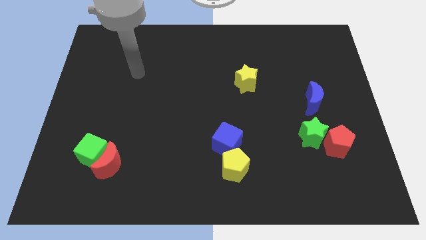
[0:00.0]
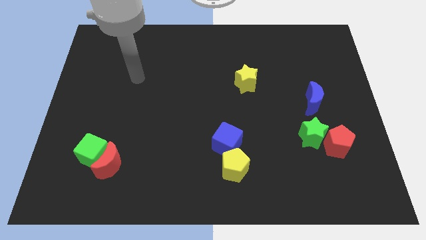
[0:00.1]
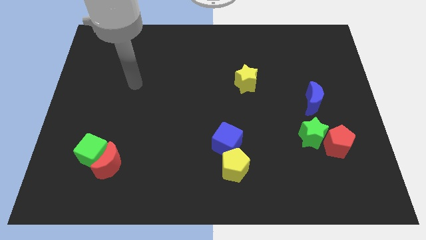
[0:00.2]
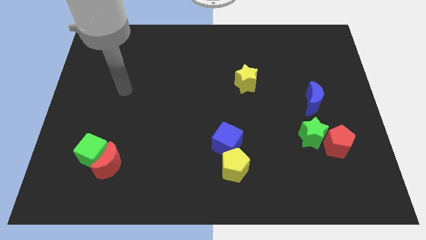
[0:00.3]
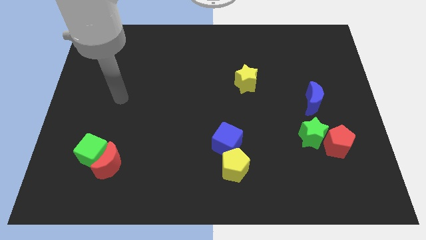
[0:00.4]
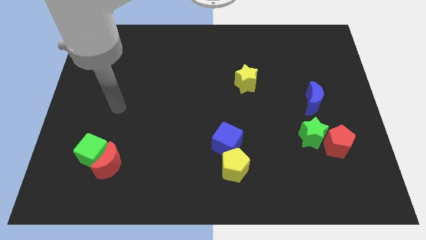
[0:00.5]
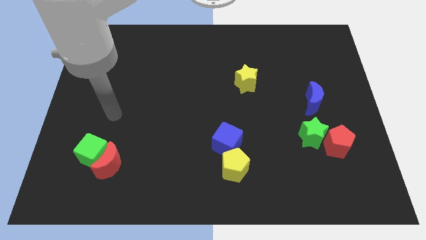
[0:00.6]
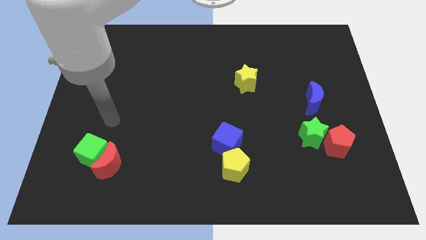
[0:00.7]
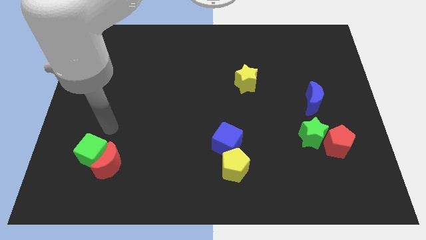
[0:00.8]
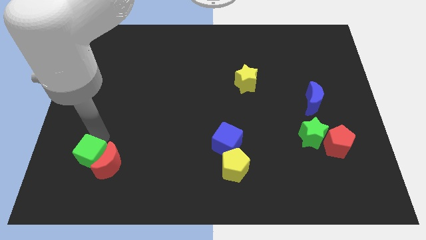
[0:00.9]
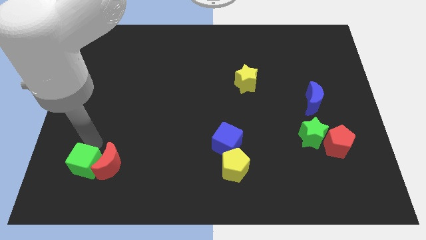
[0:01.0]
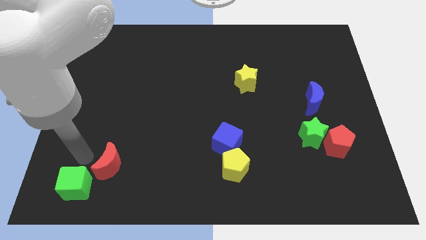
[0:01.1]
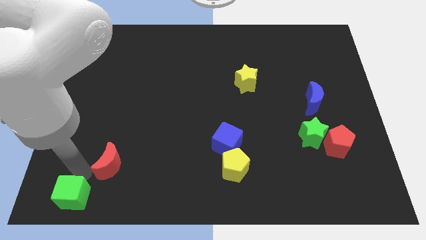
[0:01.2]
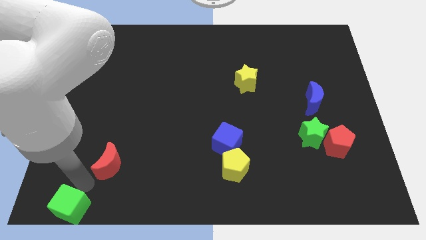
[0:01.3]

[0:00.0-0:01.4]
separate the red moon from the green cube

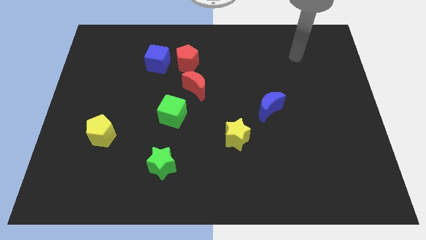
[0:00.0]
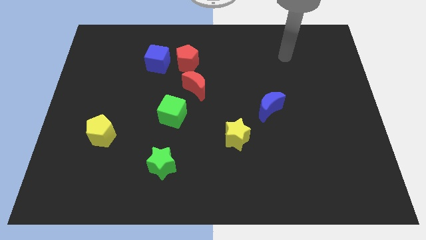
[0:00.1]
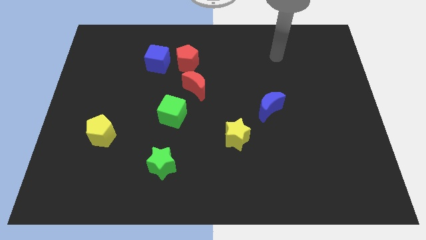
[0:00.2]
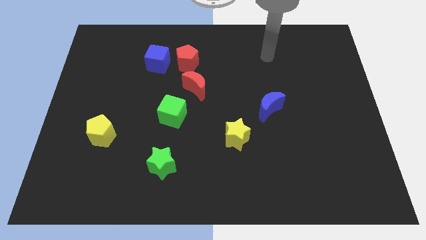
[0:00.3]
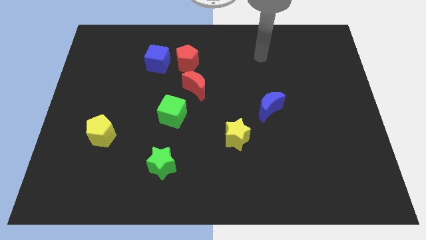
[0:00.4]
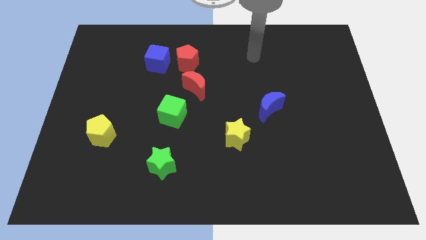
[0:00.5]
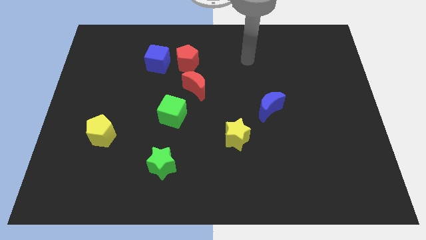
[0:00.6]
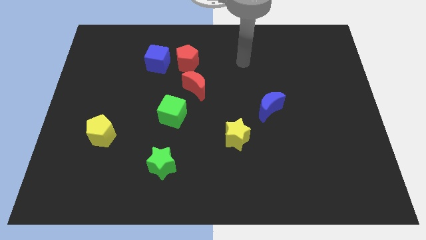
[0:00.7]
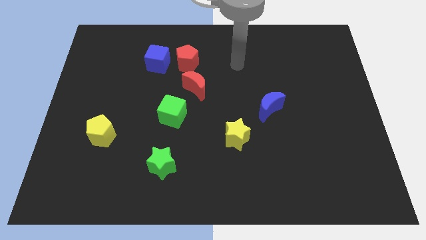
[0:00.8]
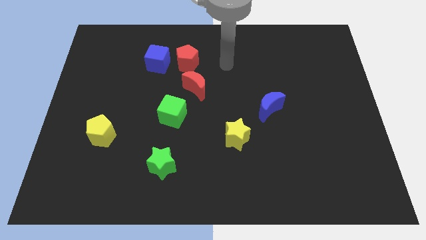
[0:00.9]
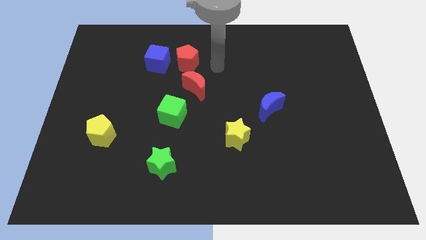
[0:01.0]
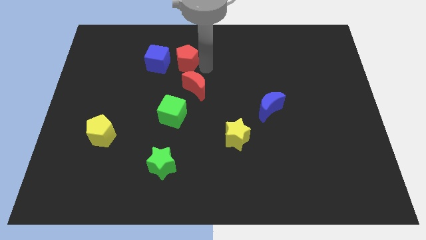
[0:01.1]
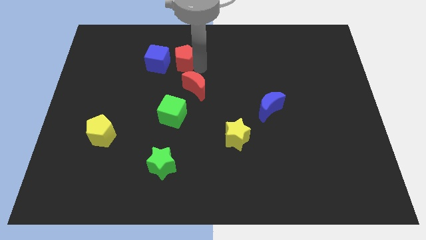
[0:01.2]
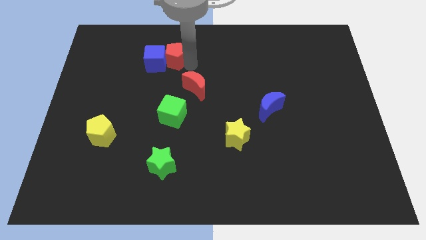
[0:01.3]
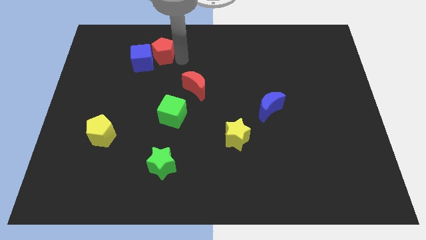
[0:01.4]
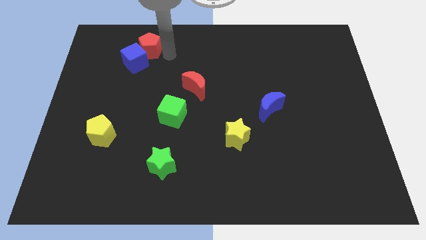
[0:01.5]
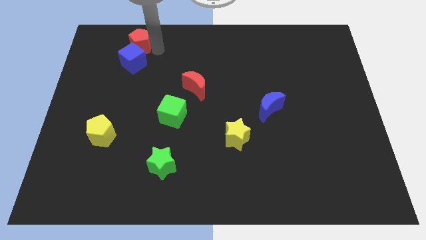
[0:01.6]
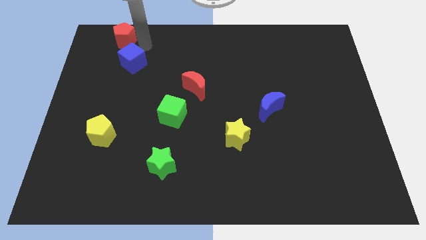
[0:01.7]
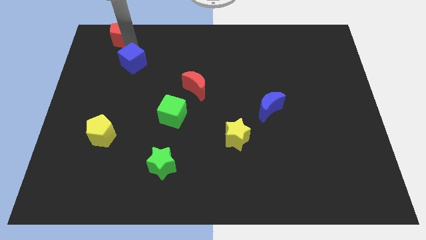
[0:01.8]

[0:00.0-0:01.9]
move the blue cube away from the red pentagon

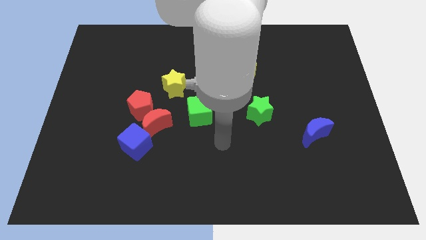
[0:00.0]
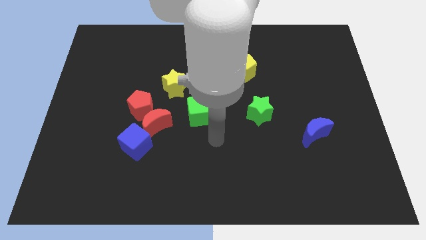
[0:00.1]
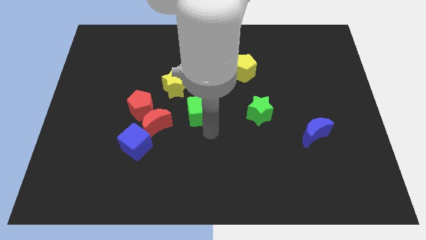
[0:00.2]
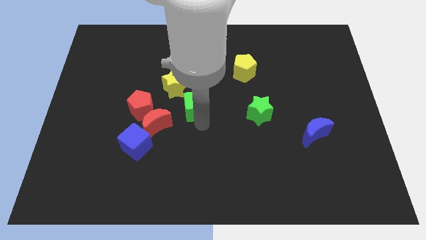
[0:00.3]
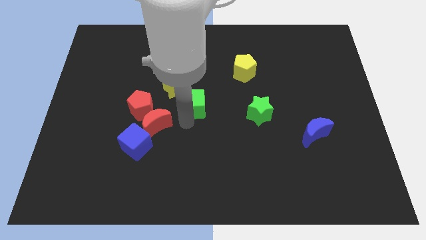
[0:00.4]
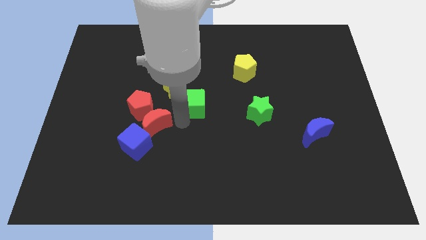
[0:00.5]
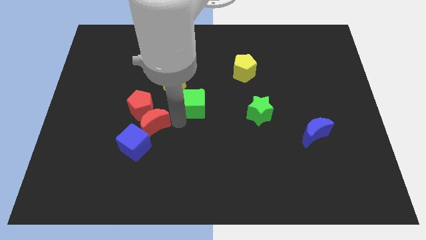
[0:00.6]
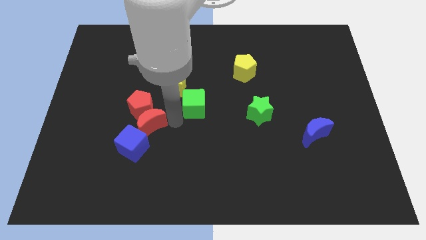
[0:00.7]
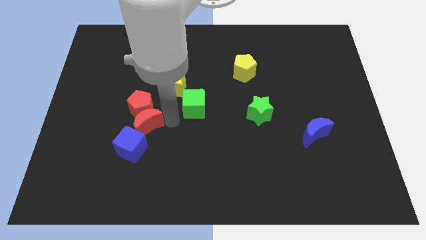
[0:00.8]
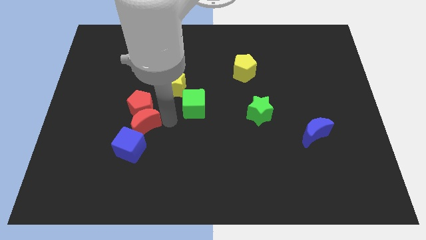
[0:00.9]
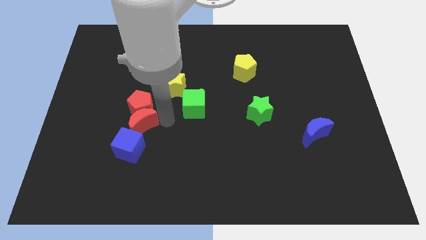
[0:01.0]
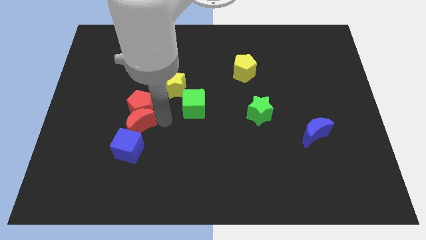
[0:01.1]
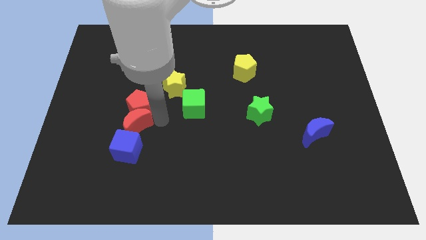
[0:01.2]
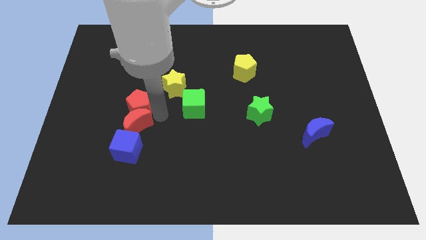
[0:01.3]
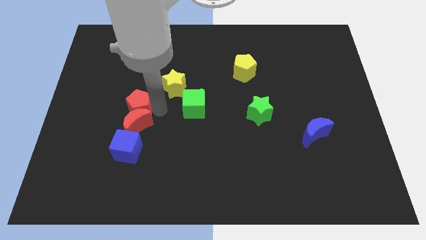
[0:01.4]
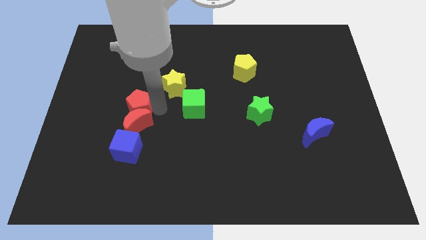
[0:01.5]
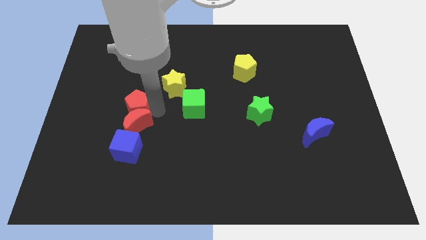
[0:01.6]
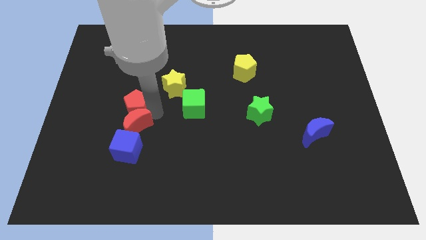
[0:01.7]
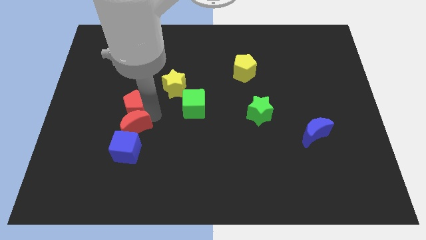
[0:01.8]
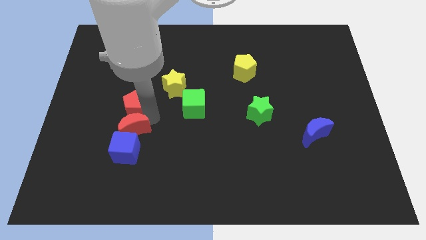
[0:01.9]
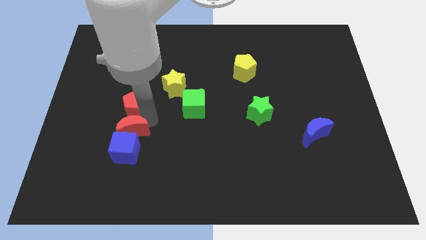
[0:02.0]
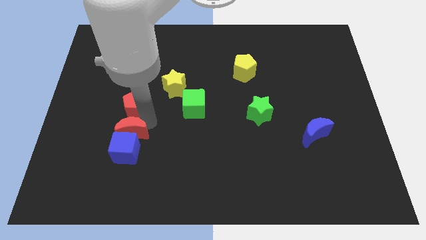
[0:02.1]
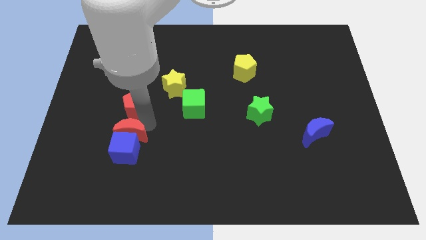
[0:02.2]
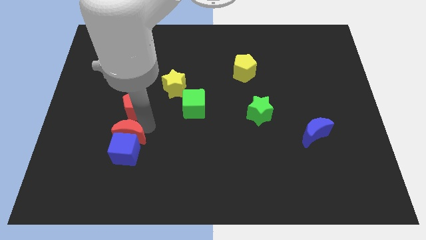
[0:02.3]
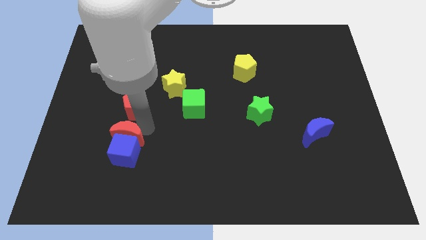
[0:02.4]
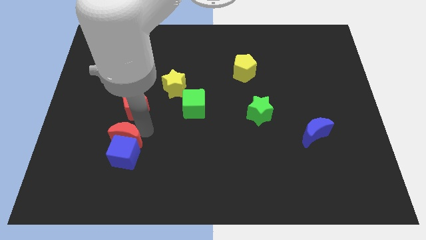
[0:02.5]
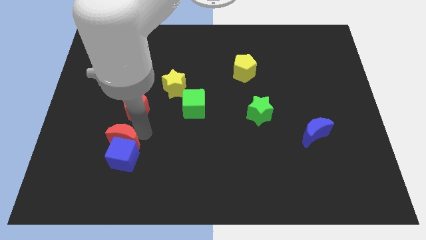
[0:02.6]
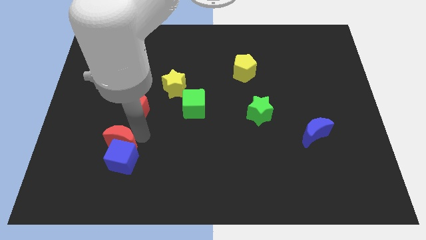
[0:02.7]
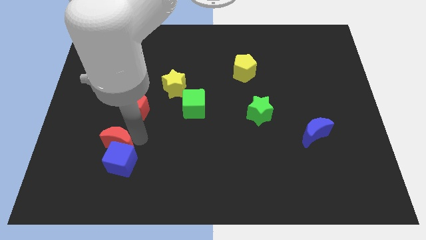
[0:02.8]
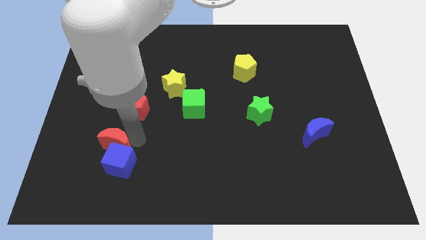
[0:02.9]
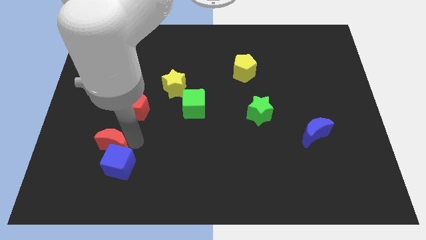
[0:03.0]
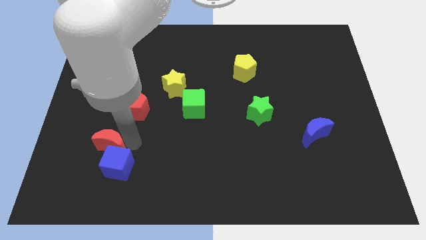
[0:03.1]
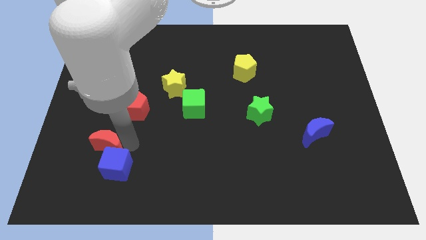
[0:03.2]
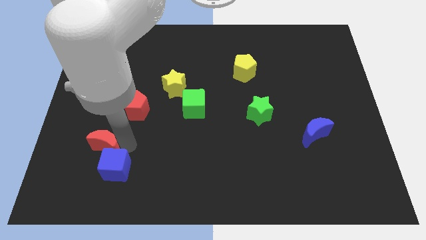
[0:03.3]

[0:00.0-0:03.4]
move the red moon away from the clump

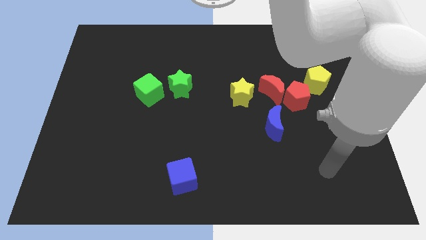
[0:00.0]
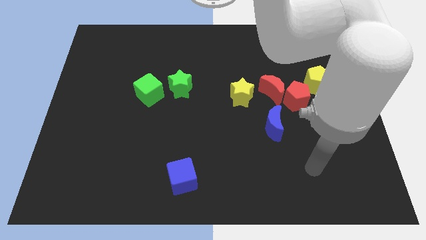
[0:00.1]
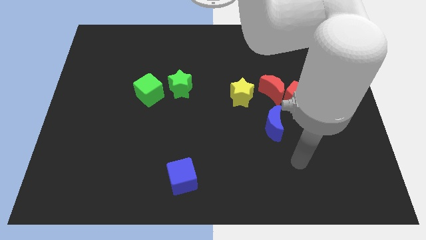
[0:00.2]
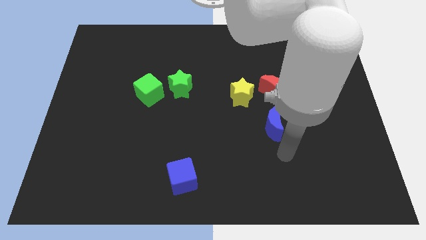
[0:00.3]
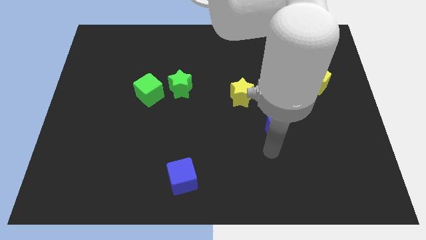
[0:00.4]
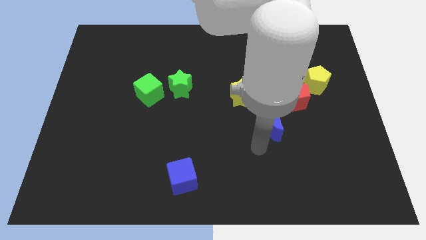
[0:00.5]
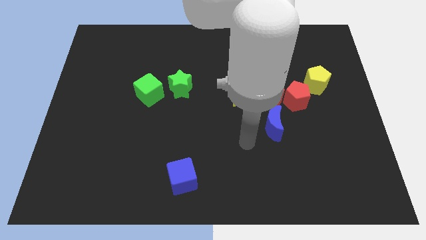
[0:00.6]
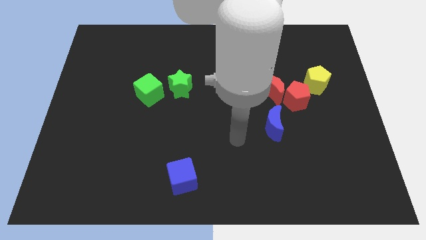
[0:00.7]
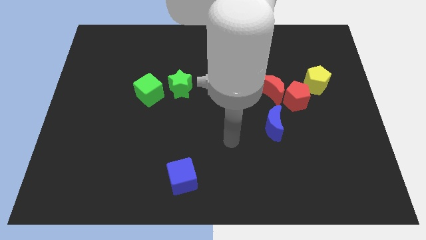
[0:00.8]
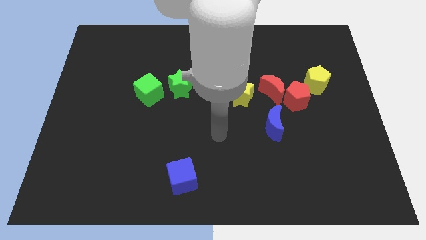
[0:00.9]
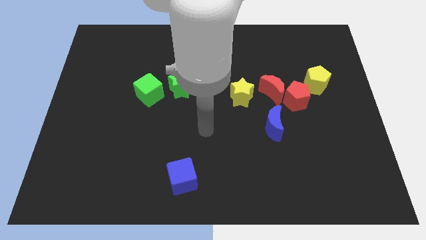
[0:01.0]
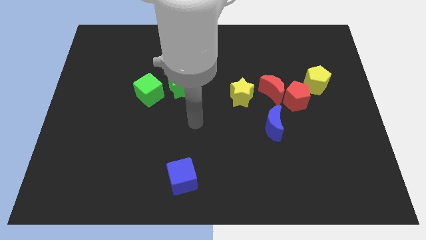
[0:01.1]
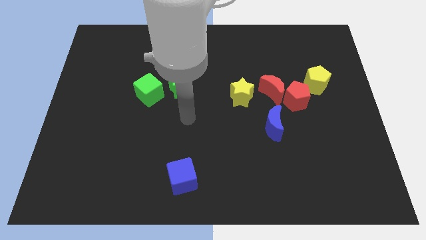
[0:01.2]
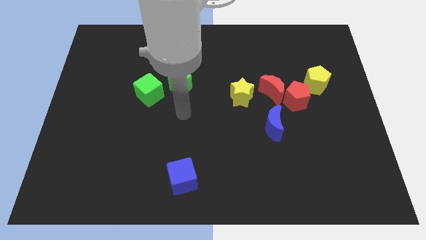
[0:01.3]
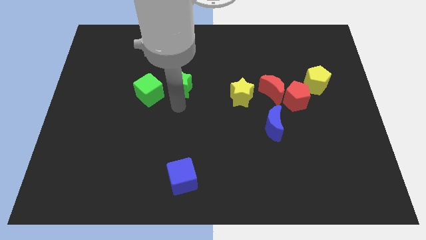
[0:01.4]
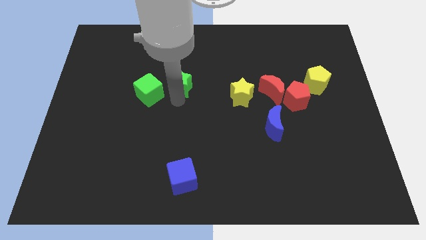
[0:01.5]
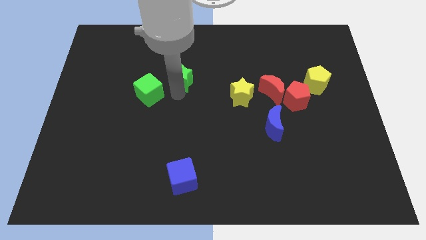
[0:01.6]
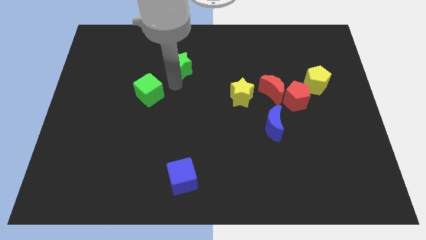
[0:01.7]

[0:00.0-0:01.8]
move the green cube away from the green star

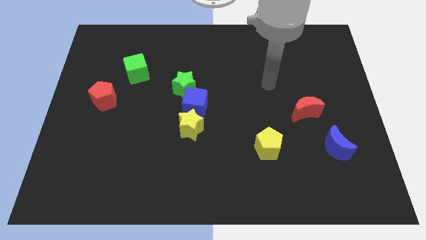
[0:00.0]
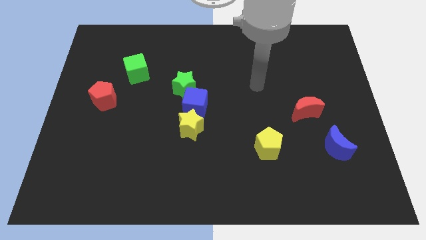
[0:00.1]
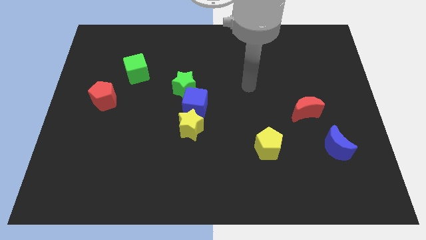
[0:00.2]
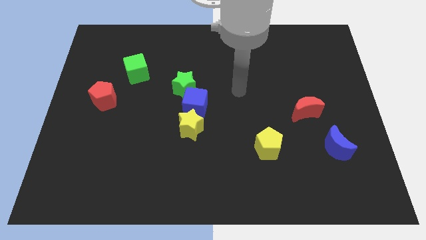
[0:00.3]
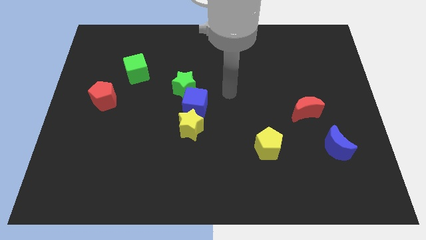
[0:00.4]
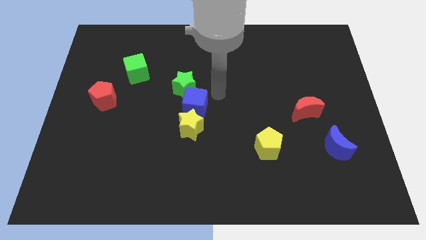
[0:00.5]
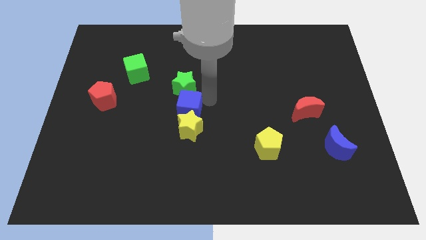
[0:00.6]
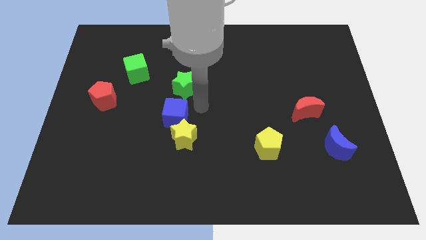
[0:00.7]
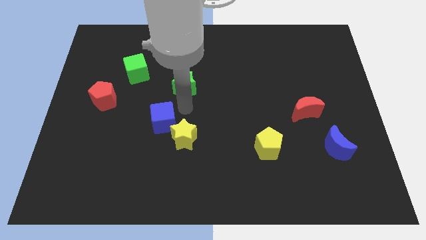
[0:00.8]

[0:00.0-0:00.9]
separate the green star from the blue cube
